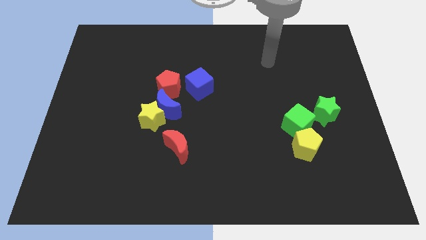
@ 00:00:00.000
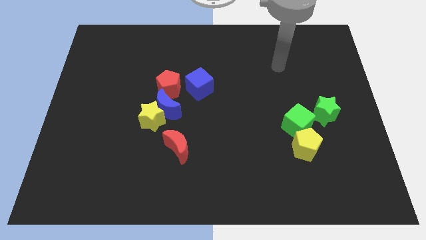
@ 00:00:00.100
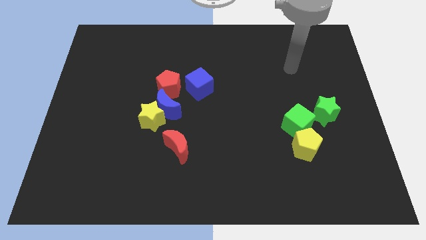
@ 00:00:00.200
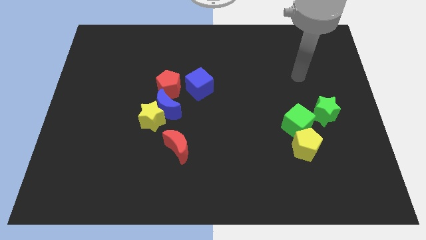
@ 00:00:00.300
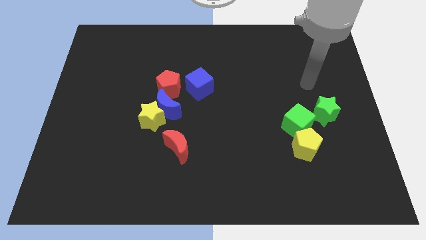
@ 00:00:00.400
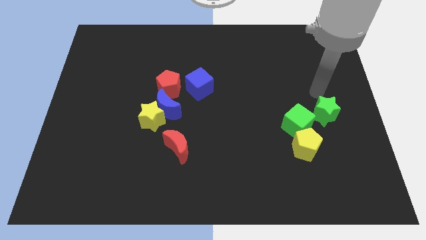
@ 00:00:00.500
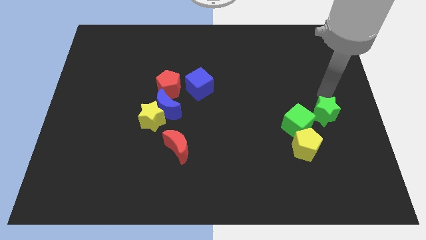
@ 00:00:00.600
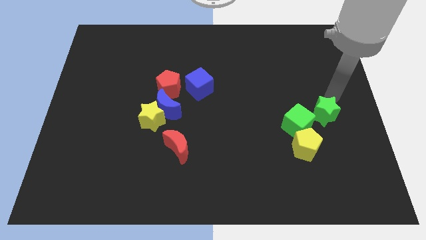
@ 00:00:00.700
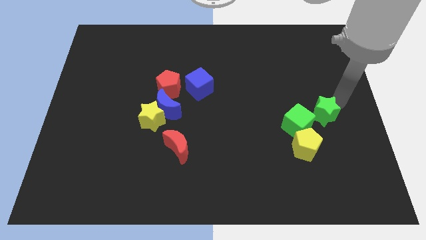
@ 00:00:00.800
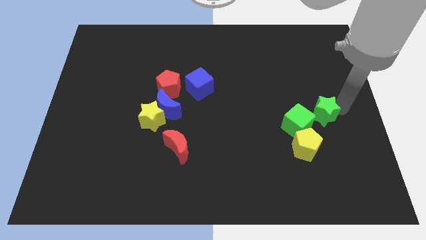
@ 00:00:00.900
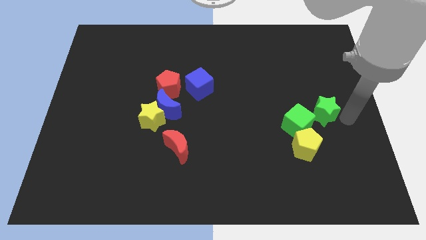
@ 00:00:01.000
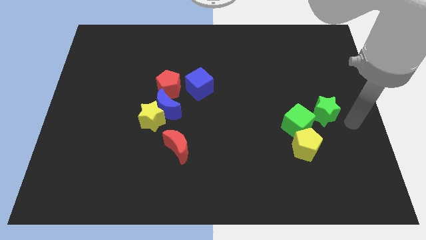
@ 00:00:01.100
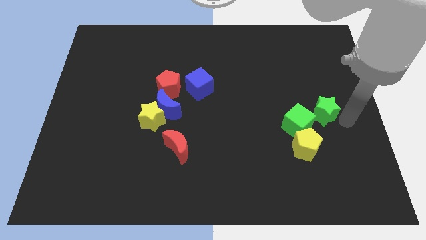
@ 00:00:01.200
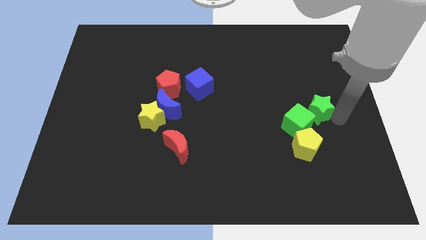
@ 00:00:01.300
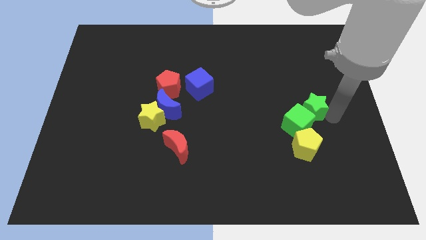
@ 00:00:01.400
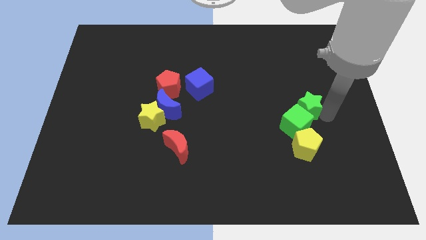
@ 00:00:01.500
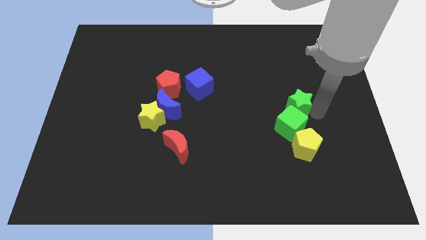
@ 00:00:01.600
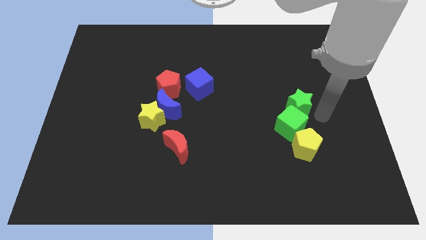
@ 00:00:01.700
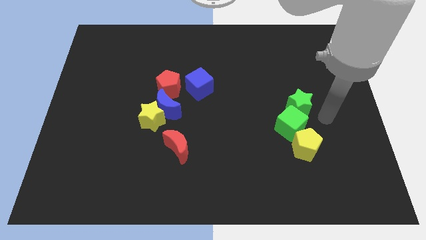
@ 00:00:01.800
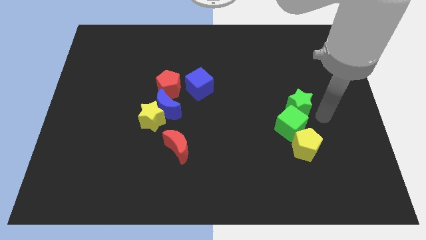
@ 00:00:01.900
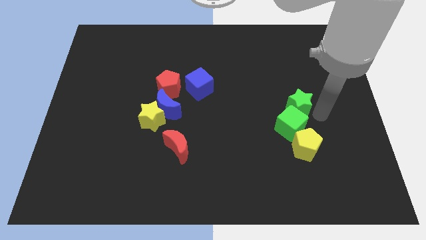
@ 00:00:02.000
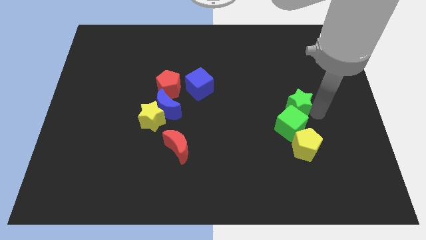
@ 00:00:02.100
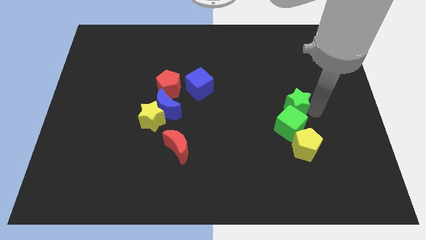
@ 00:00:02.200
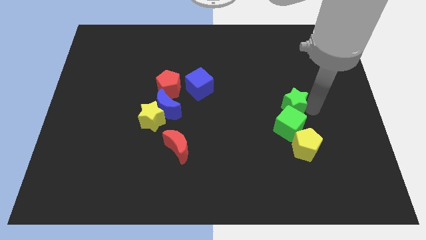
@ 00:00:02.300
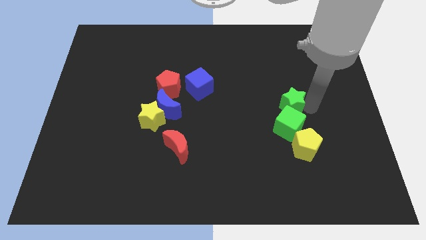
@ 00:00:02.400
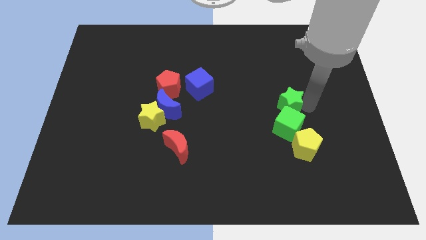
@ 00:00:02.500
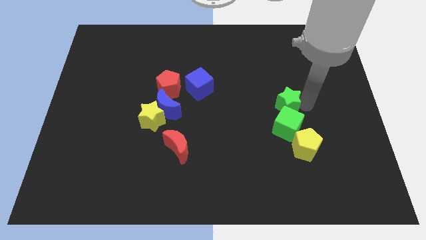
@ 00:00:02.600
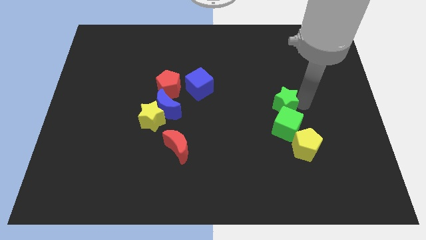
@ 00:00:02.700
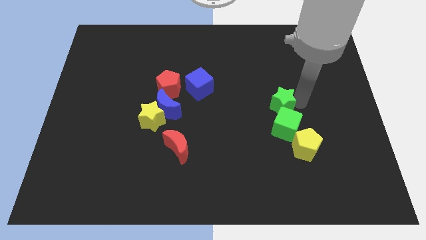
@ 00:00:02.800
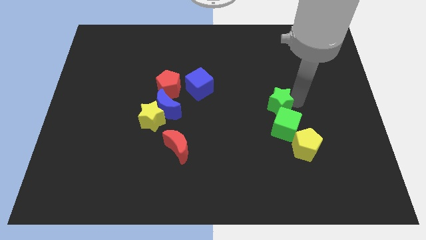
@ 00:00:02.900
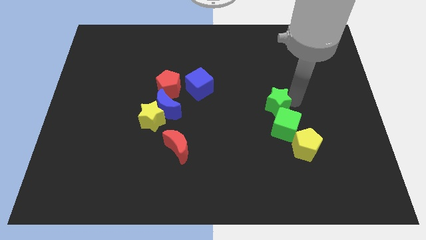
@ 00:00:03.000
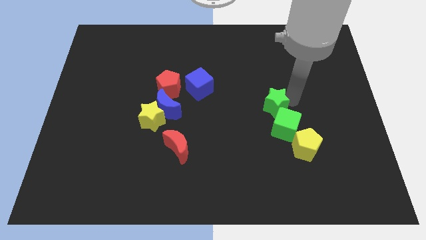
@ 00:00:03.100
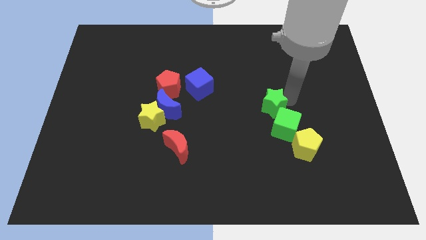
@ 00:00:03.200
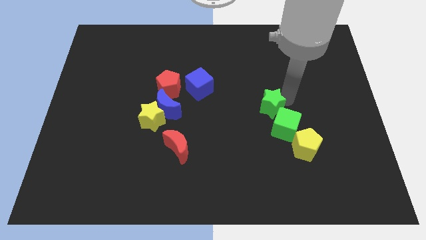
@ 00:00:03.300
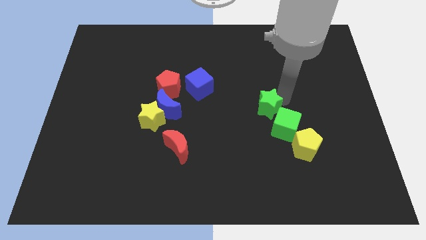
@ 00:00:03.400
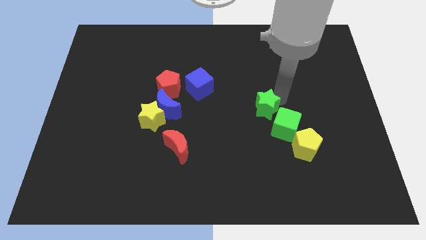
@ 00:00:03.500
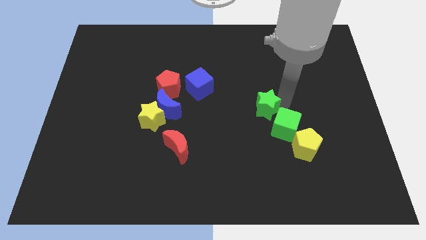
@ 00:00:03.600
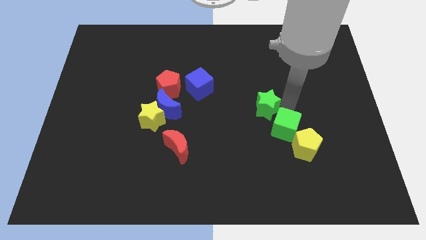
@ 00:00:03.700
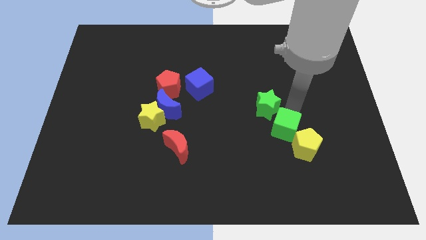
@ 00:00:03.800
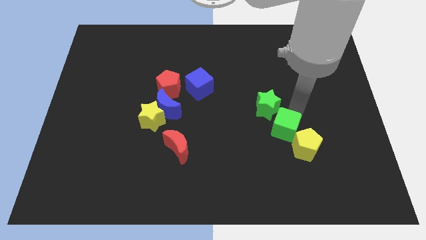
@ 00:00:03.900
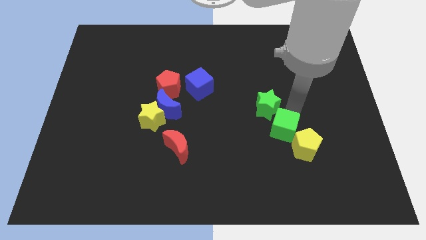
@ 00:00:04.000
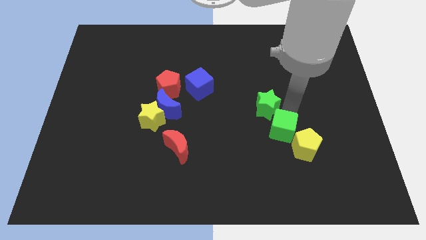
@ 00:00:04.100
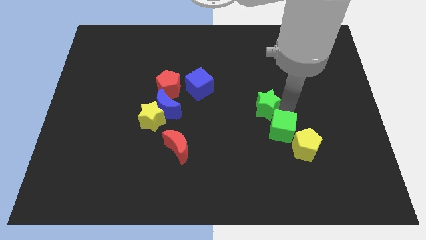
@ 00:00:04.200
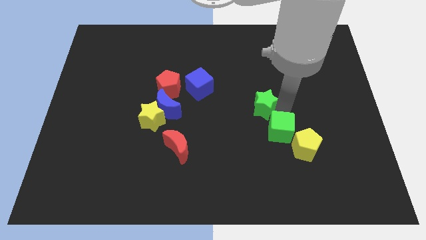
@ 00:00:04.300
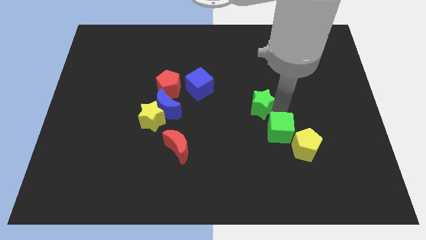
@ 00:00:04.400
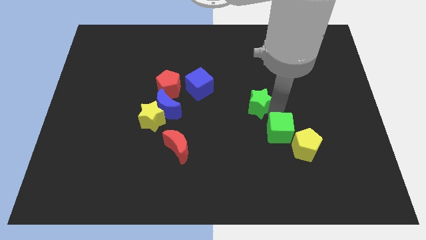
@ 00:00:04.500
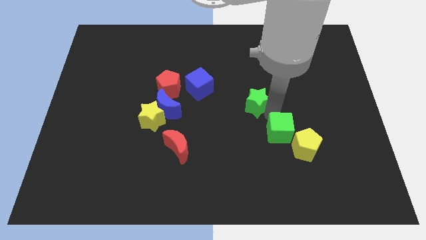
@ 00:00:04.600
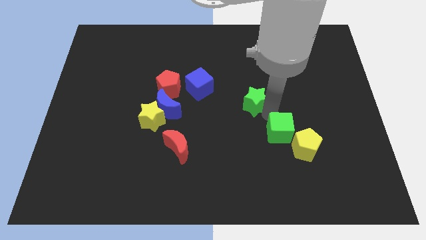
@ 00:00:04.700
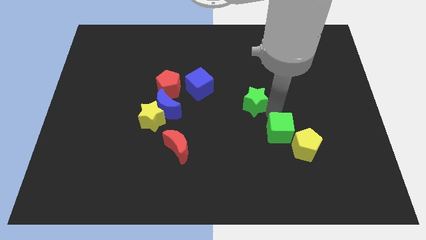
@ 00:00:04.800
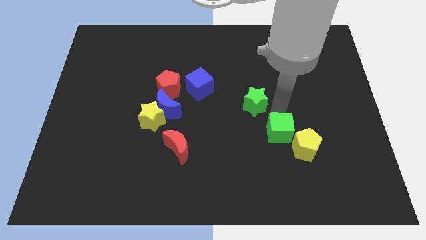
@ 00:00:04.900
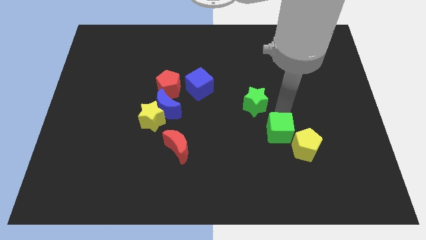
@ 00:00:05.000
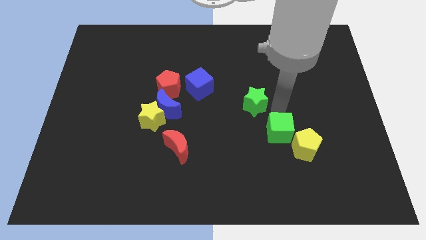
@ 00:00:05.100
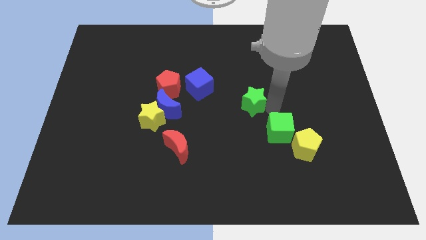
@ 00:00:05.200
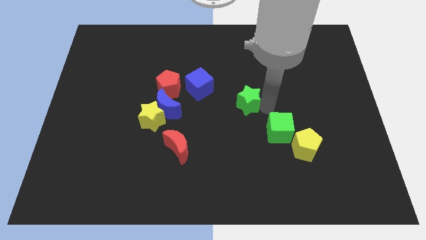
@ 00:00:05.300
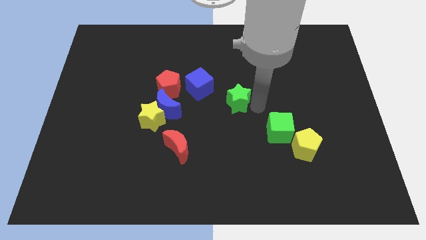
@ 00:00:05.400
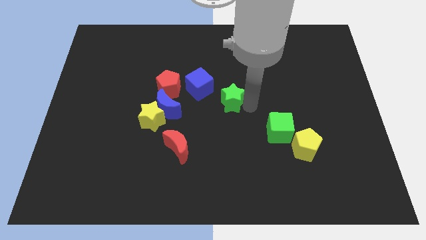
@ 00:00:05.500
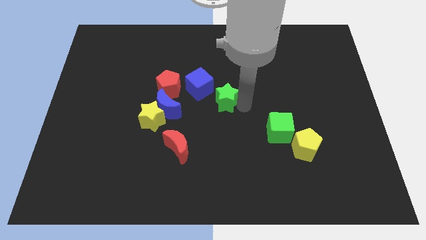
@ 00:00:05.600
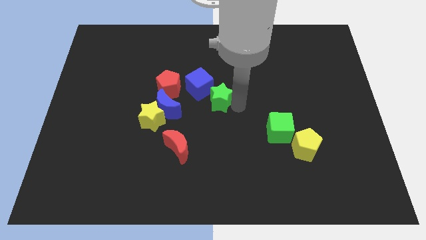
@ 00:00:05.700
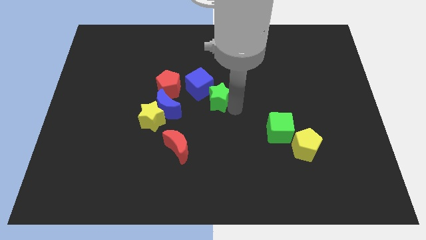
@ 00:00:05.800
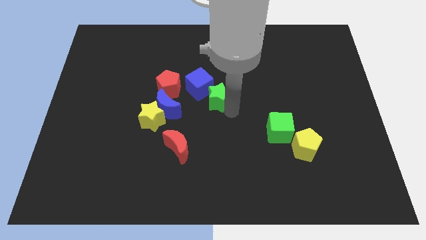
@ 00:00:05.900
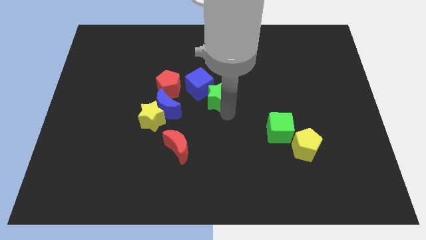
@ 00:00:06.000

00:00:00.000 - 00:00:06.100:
move the green star to the blue cube

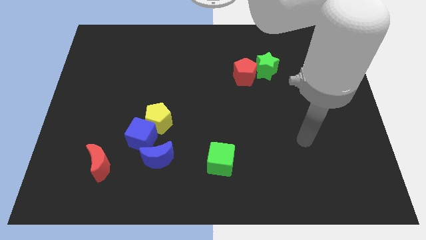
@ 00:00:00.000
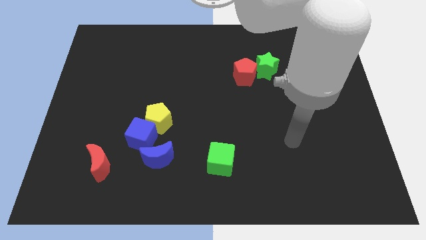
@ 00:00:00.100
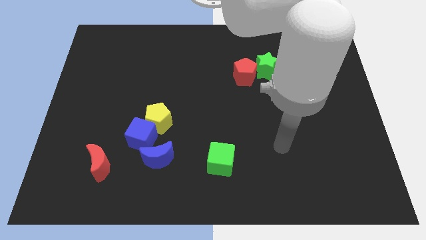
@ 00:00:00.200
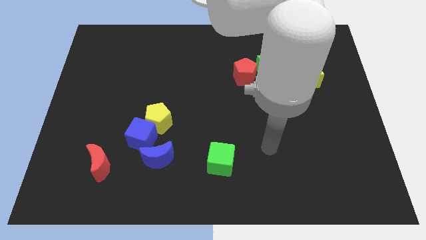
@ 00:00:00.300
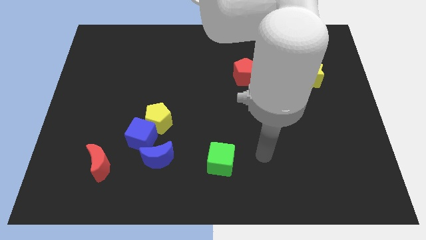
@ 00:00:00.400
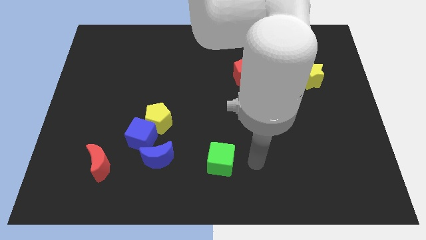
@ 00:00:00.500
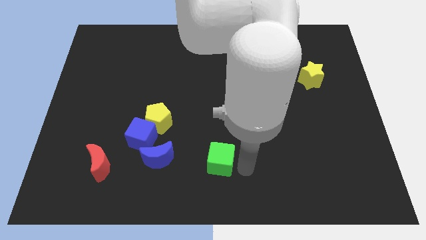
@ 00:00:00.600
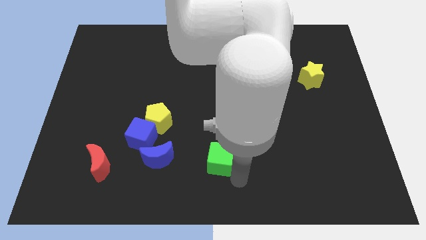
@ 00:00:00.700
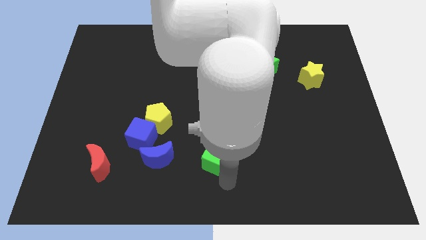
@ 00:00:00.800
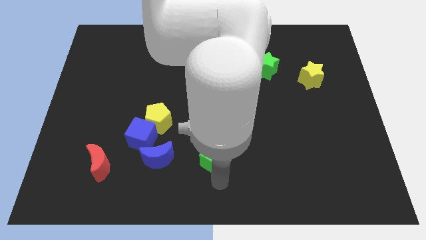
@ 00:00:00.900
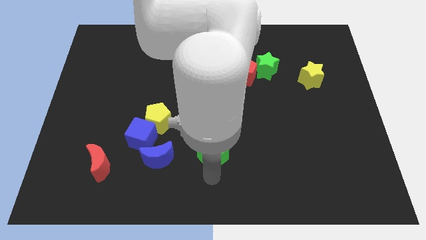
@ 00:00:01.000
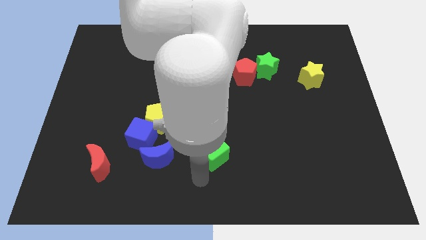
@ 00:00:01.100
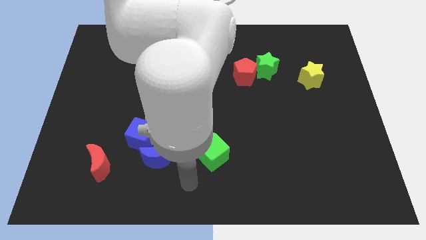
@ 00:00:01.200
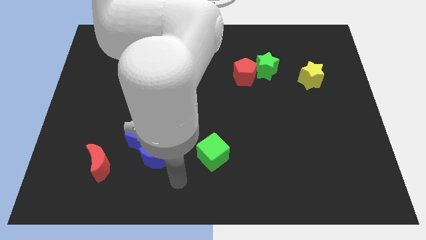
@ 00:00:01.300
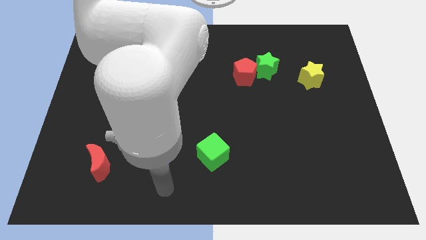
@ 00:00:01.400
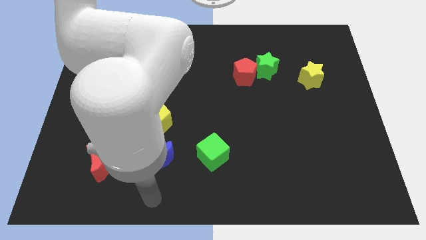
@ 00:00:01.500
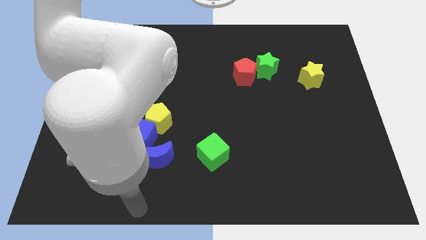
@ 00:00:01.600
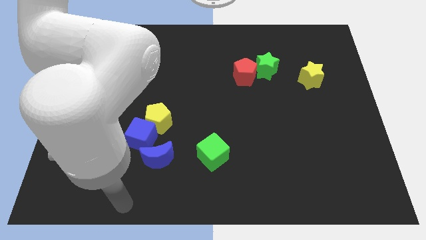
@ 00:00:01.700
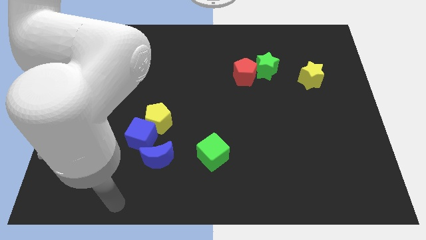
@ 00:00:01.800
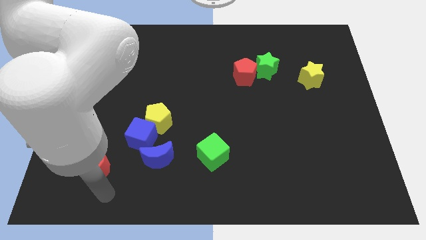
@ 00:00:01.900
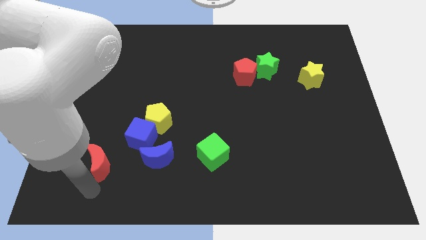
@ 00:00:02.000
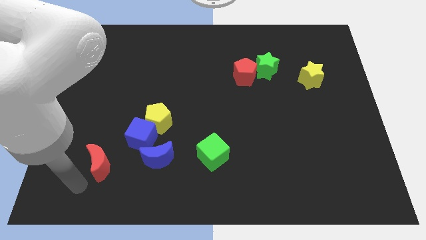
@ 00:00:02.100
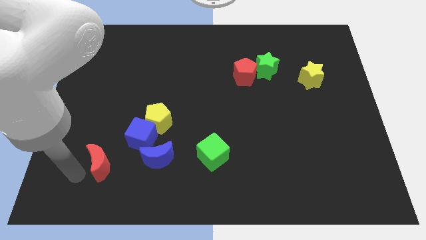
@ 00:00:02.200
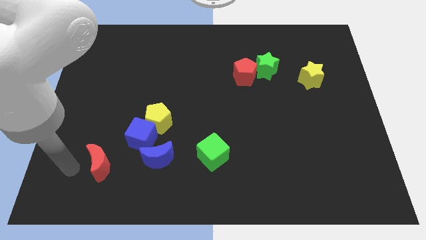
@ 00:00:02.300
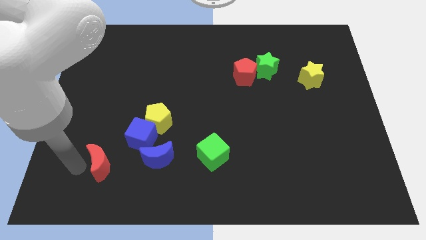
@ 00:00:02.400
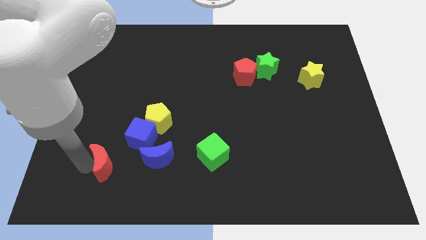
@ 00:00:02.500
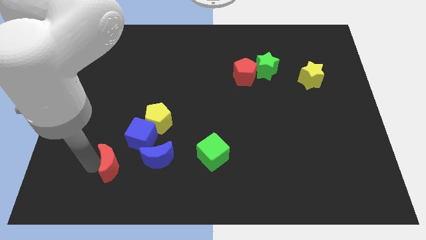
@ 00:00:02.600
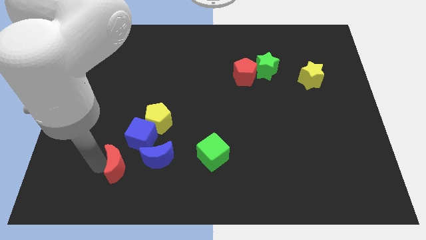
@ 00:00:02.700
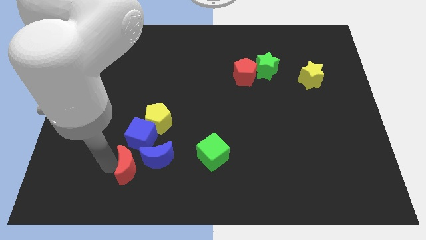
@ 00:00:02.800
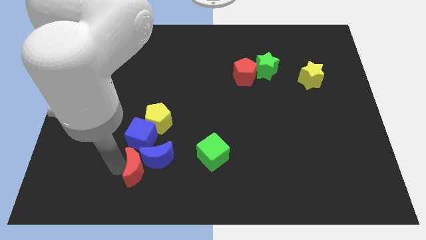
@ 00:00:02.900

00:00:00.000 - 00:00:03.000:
put the red moon to the blue moon
